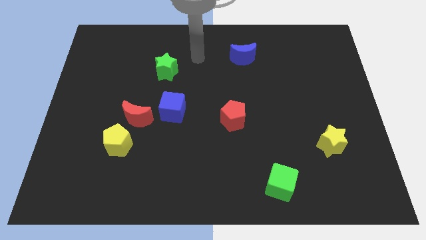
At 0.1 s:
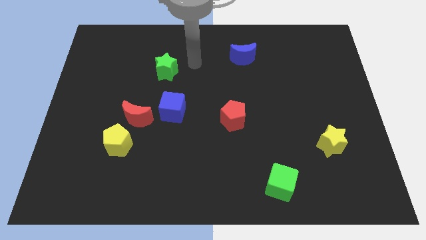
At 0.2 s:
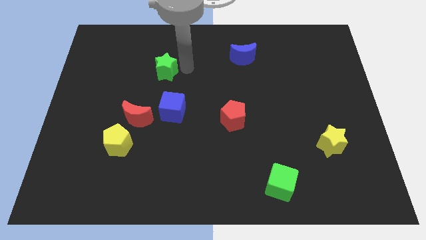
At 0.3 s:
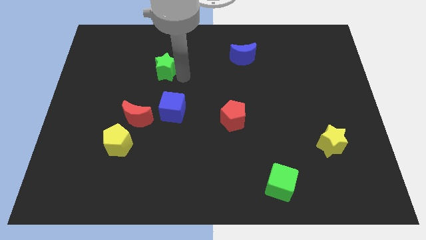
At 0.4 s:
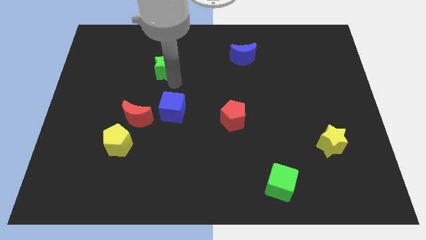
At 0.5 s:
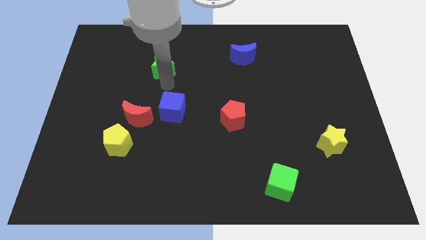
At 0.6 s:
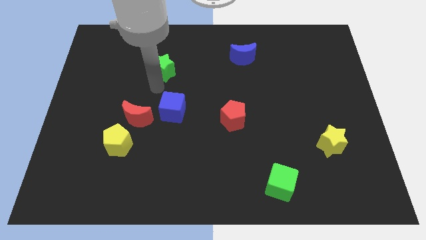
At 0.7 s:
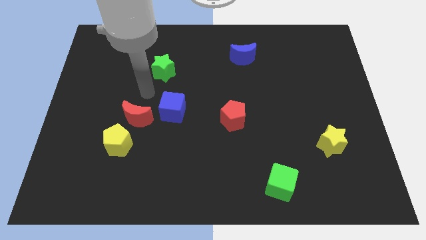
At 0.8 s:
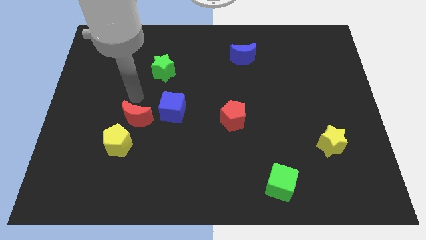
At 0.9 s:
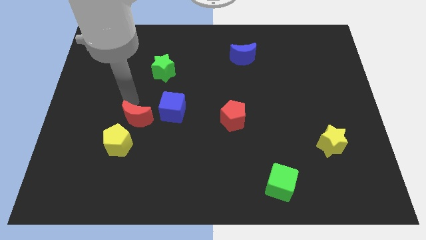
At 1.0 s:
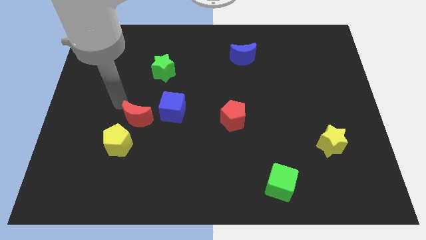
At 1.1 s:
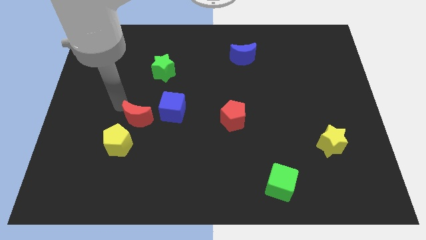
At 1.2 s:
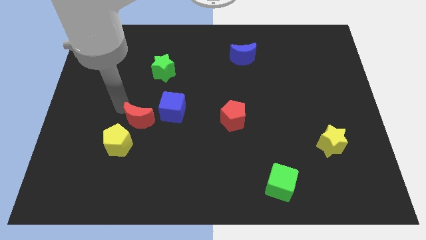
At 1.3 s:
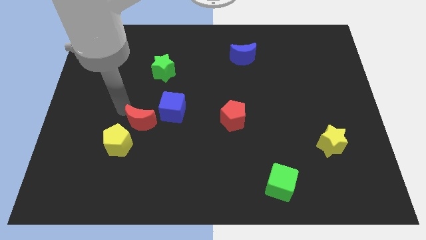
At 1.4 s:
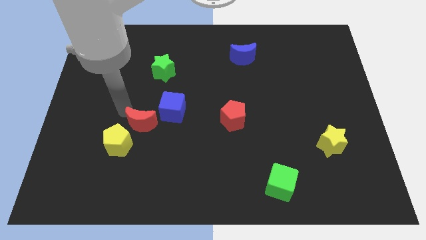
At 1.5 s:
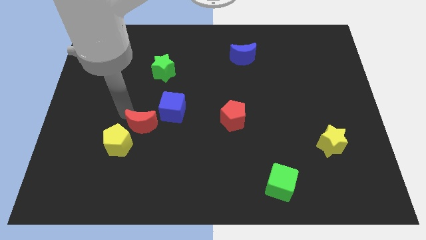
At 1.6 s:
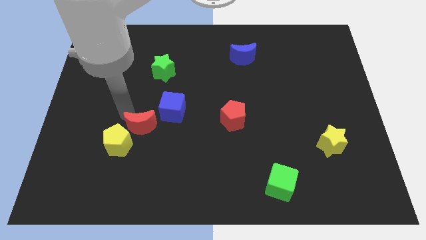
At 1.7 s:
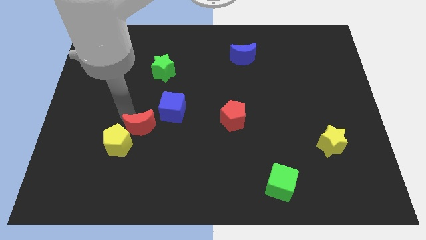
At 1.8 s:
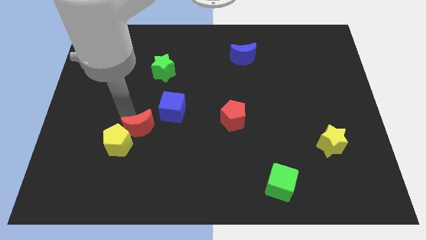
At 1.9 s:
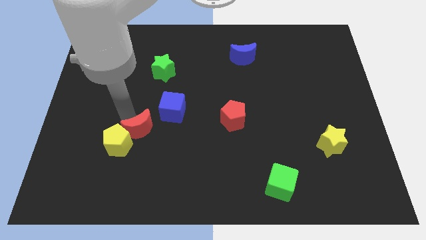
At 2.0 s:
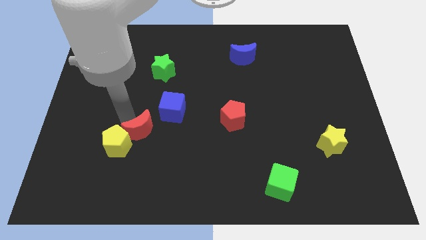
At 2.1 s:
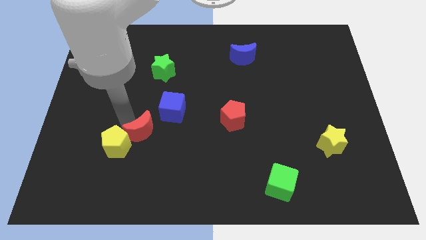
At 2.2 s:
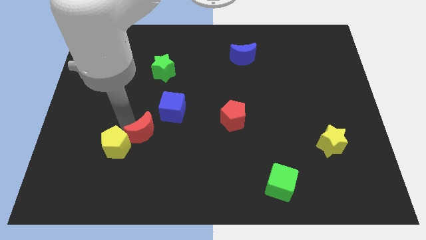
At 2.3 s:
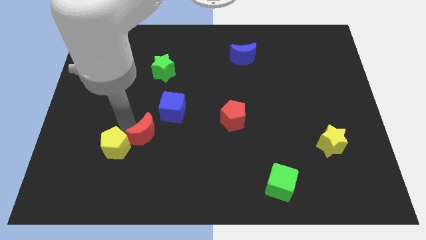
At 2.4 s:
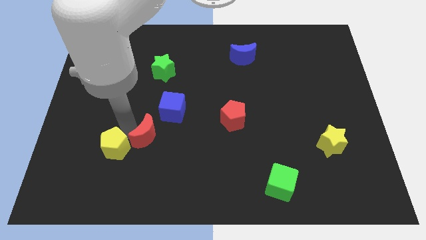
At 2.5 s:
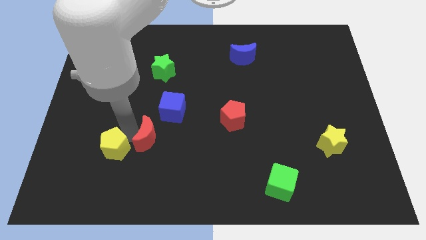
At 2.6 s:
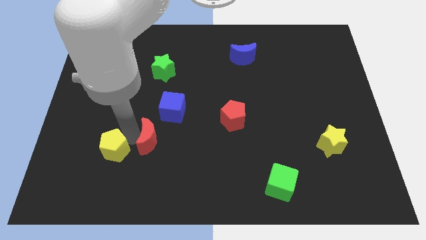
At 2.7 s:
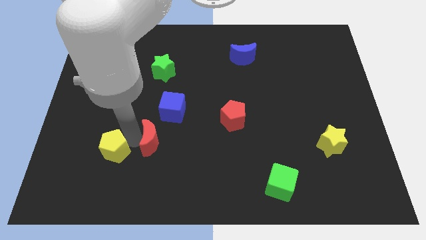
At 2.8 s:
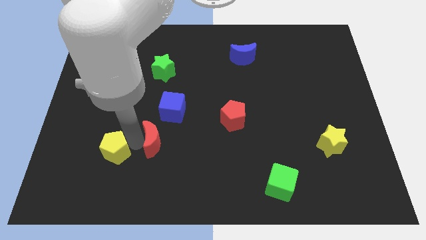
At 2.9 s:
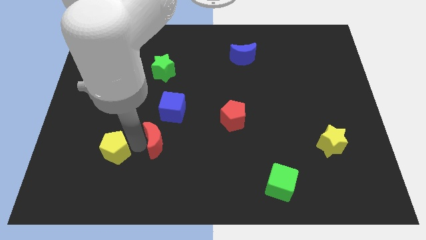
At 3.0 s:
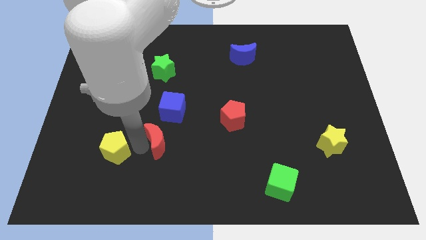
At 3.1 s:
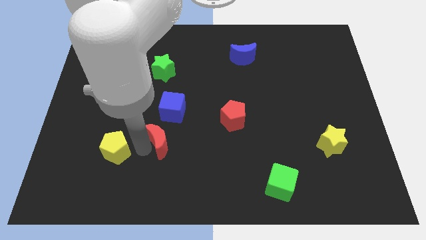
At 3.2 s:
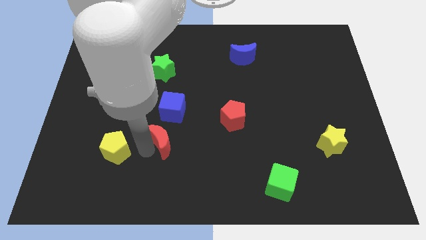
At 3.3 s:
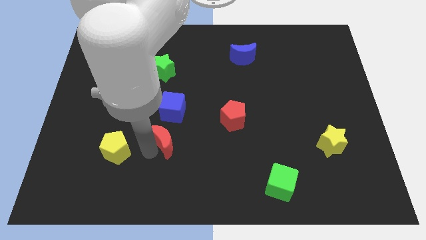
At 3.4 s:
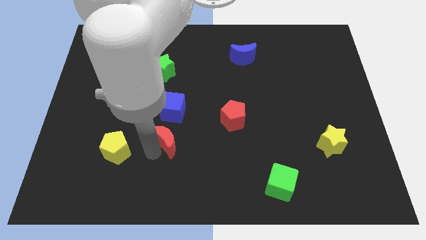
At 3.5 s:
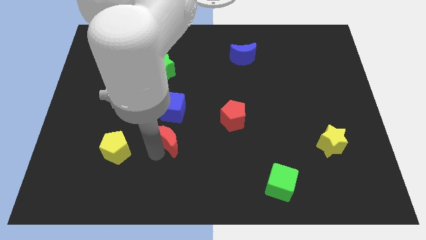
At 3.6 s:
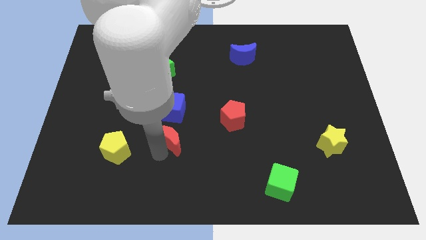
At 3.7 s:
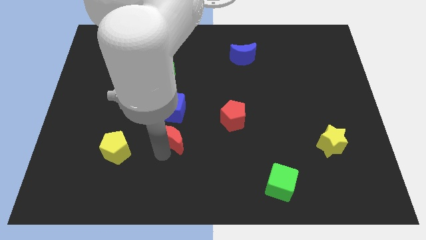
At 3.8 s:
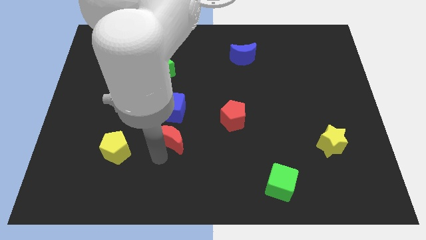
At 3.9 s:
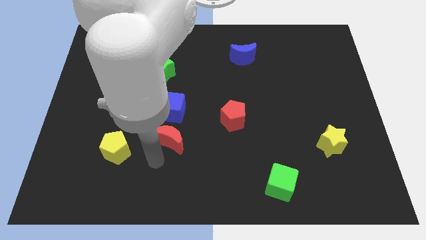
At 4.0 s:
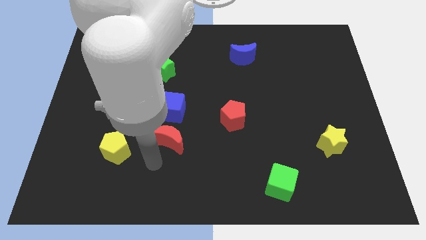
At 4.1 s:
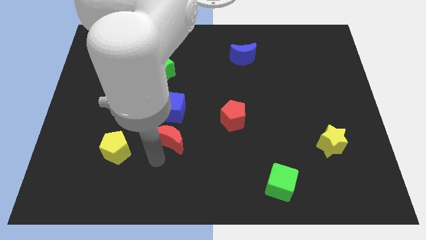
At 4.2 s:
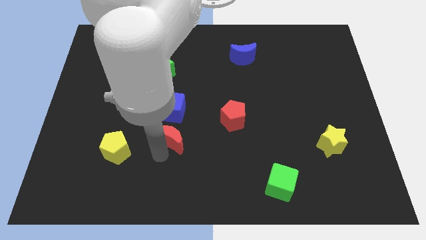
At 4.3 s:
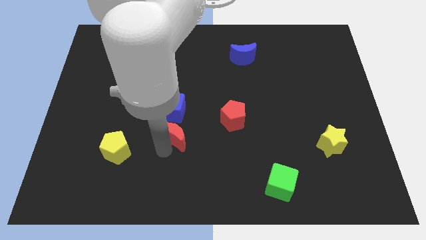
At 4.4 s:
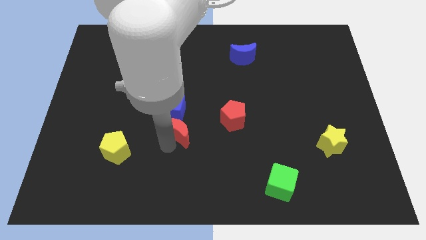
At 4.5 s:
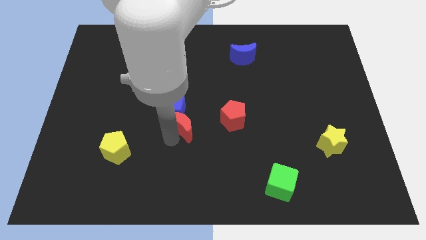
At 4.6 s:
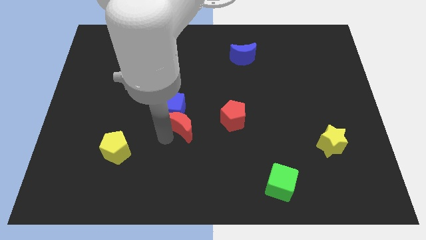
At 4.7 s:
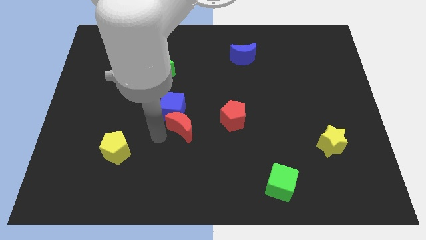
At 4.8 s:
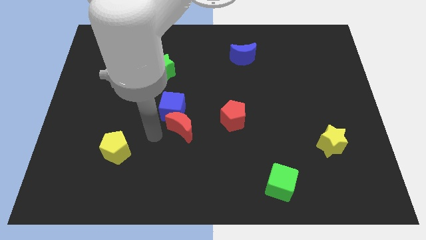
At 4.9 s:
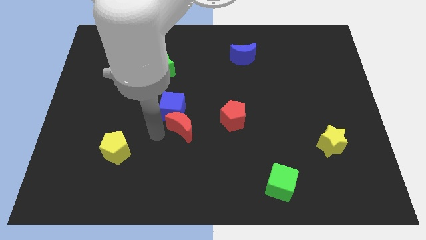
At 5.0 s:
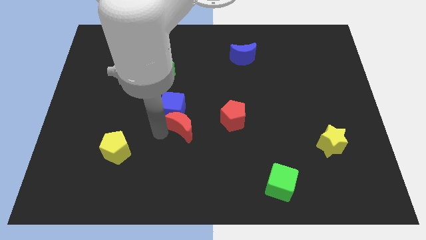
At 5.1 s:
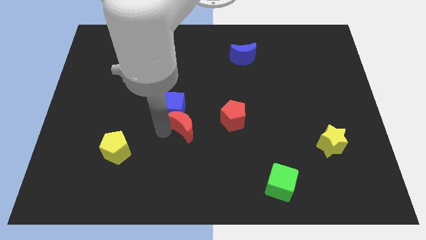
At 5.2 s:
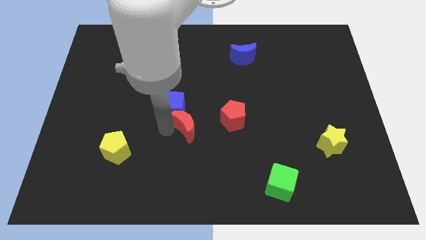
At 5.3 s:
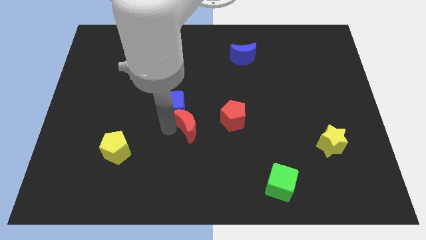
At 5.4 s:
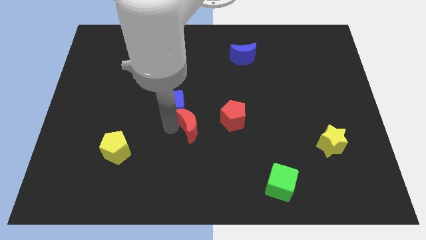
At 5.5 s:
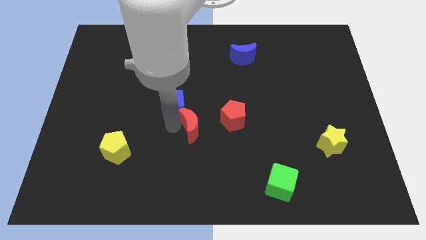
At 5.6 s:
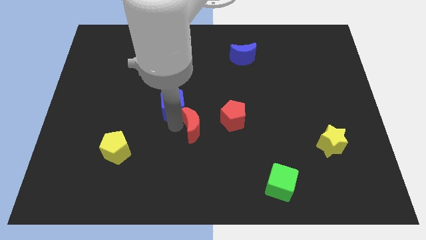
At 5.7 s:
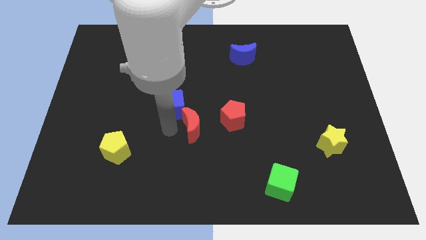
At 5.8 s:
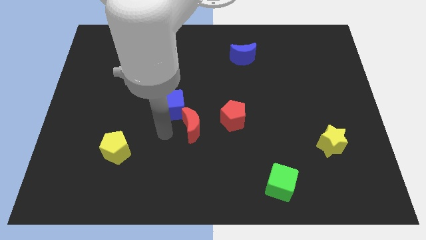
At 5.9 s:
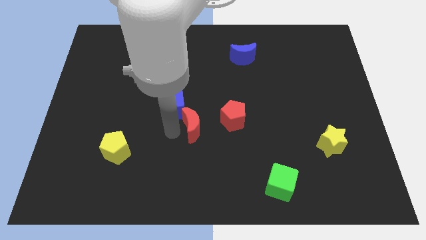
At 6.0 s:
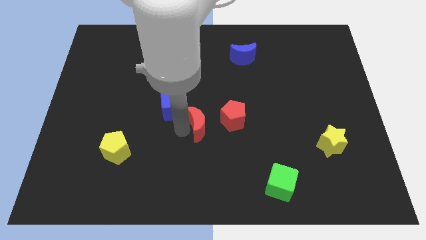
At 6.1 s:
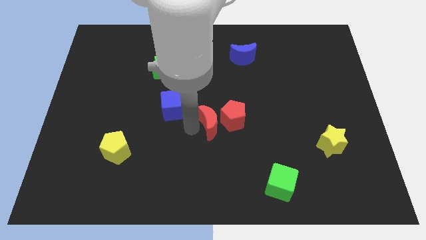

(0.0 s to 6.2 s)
move the red moon towards the red pentagon

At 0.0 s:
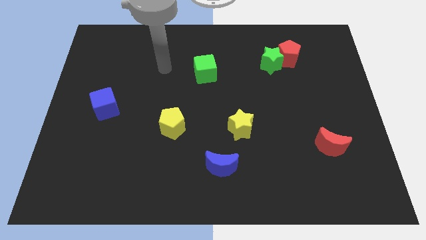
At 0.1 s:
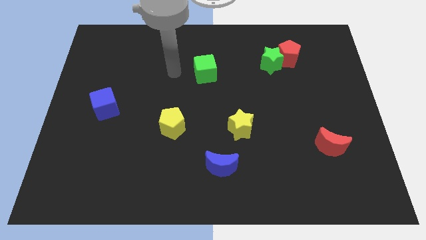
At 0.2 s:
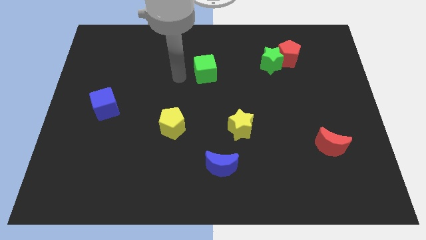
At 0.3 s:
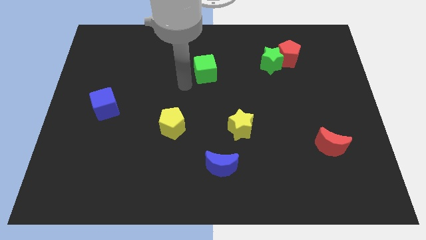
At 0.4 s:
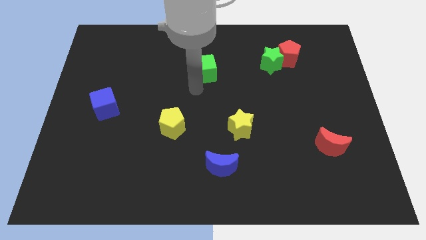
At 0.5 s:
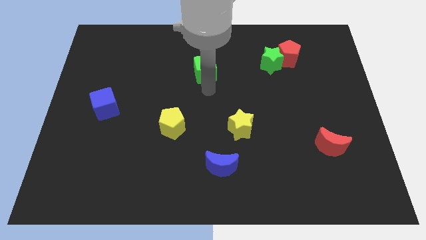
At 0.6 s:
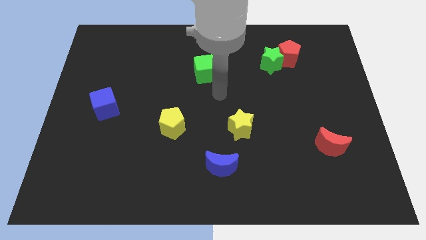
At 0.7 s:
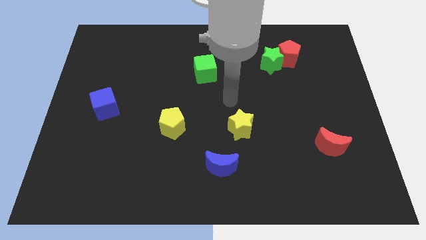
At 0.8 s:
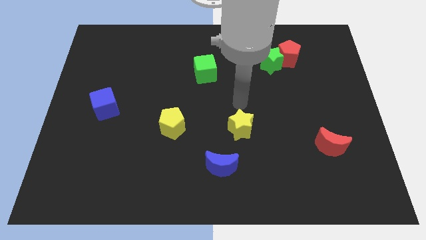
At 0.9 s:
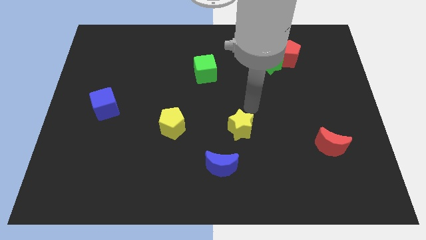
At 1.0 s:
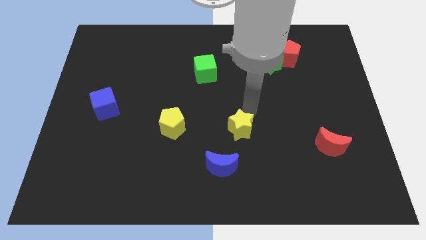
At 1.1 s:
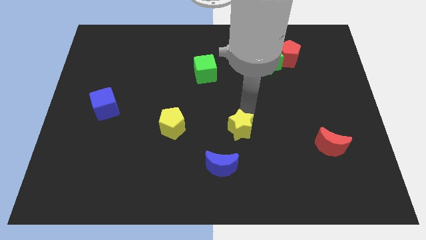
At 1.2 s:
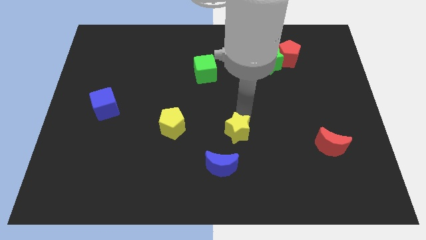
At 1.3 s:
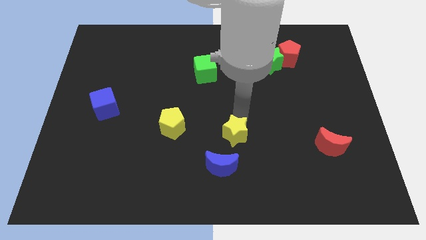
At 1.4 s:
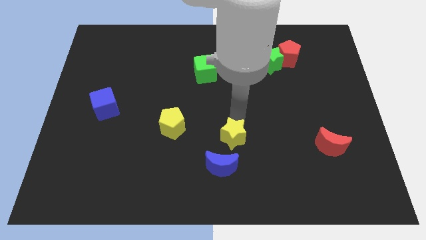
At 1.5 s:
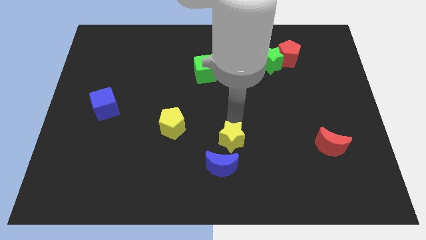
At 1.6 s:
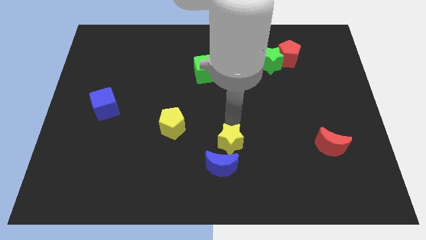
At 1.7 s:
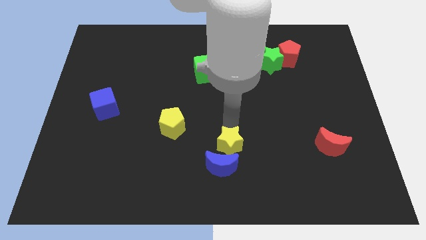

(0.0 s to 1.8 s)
slide the yellow star to the blue moon
